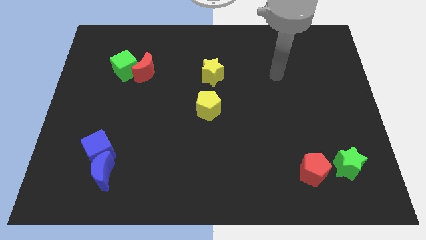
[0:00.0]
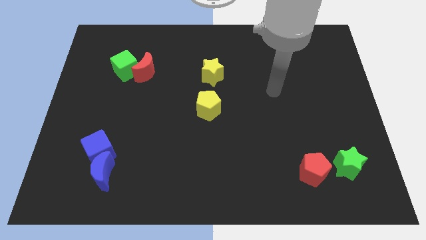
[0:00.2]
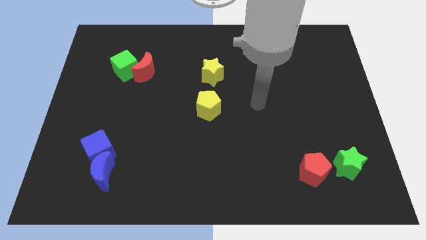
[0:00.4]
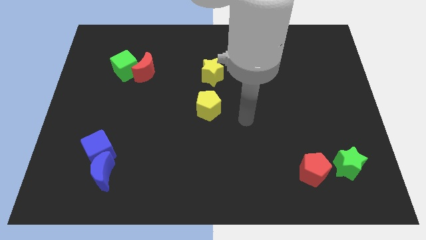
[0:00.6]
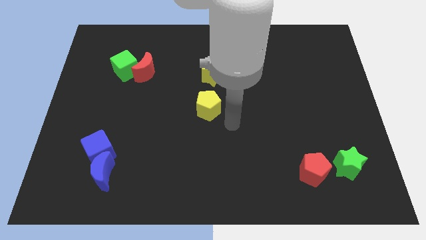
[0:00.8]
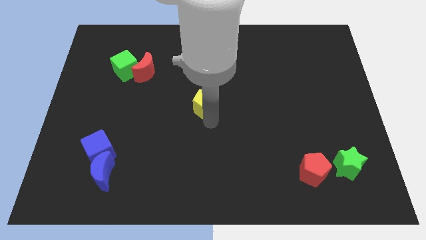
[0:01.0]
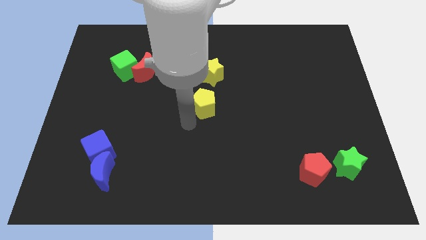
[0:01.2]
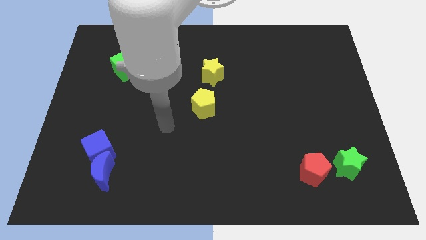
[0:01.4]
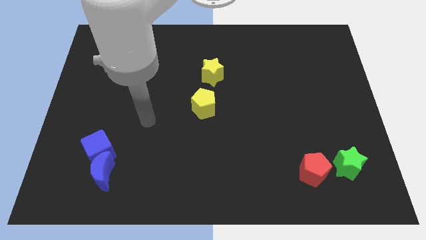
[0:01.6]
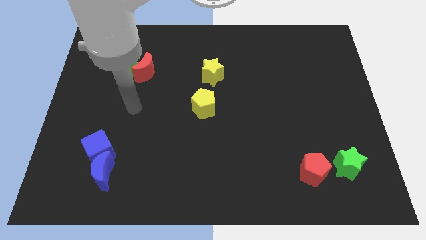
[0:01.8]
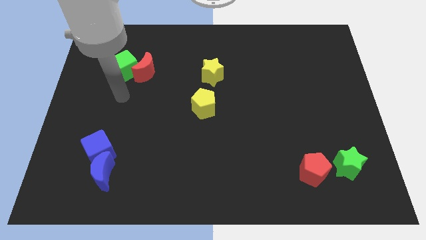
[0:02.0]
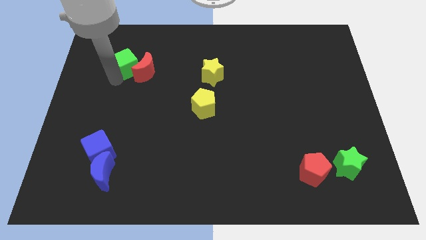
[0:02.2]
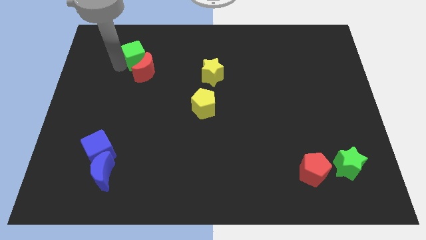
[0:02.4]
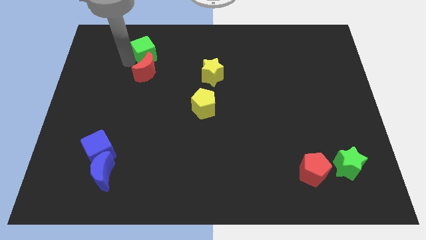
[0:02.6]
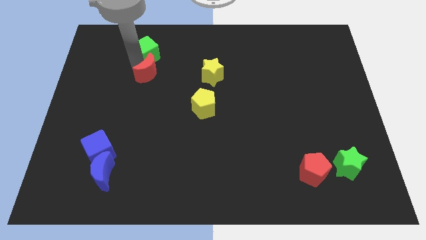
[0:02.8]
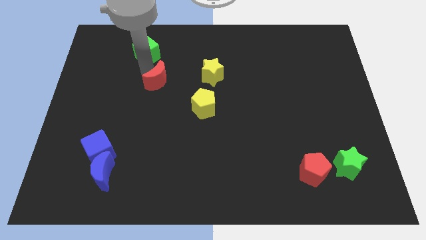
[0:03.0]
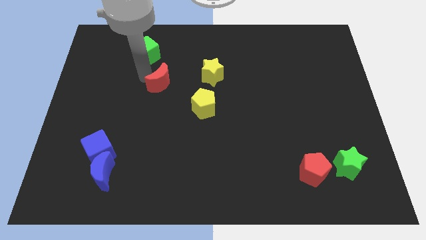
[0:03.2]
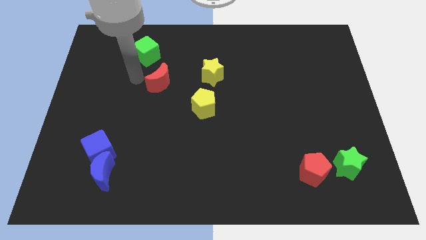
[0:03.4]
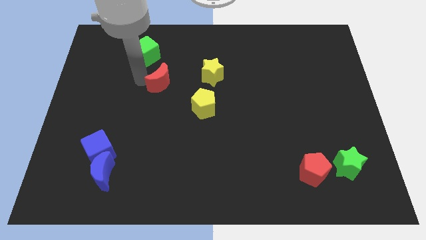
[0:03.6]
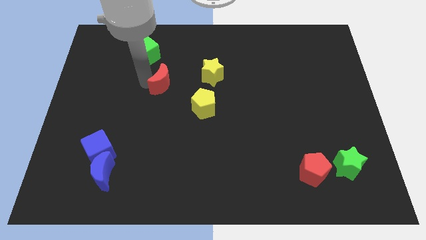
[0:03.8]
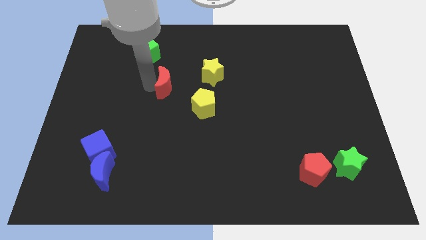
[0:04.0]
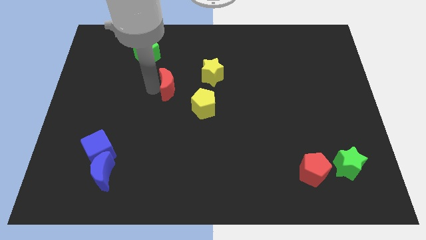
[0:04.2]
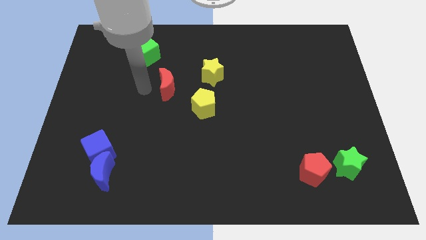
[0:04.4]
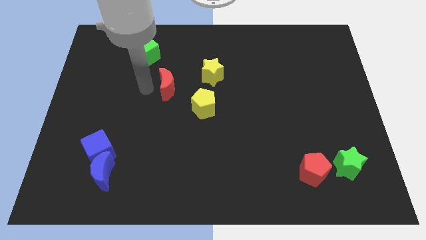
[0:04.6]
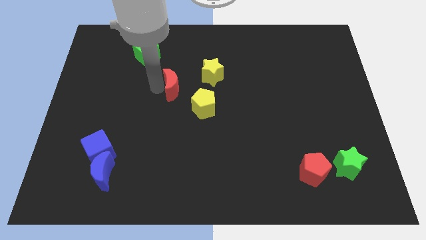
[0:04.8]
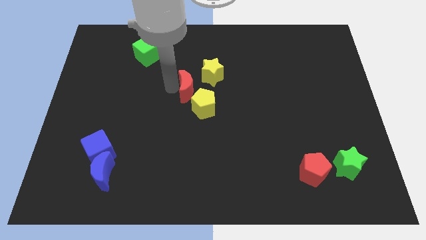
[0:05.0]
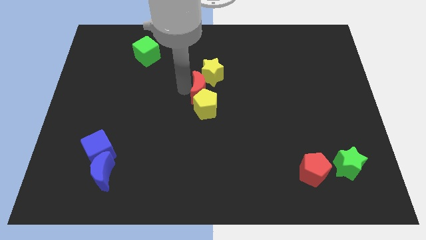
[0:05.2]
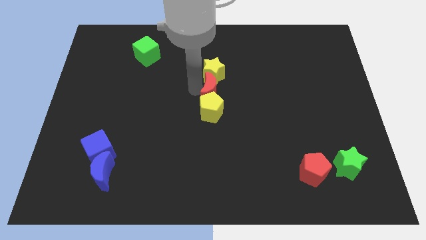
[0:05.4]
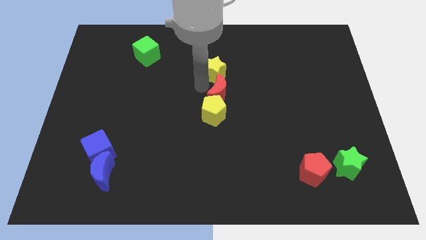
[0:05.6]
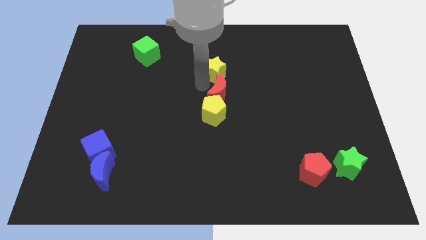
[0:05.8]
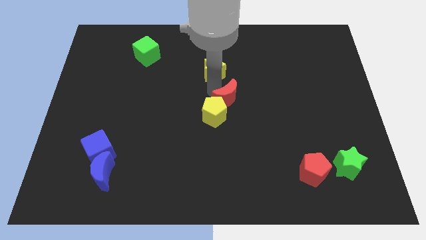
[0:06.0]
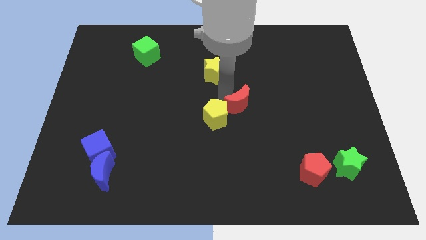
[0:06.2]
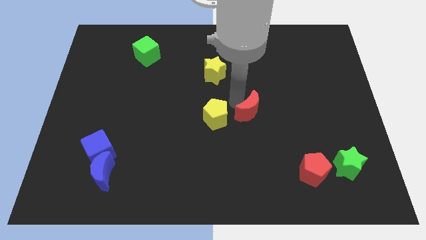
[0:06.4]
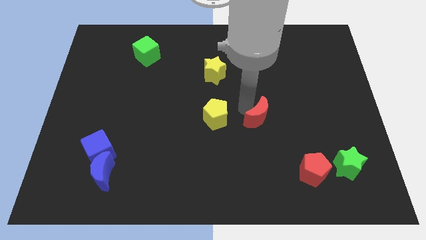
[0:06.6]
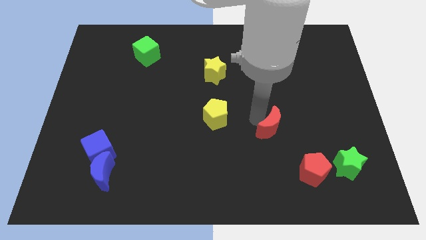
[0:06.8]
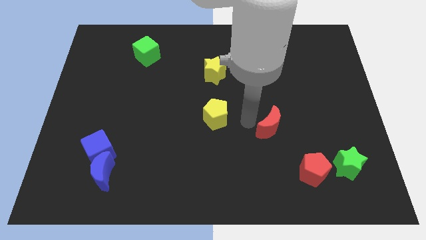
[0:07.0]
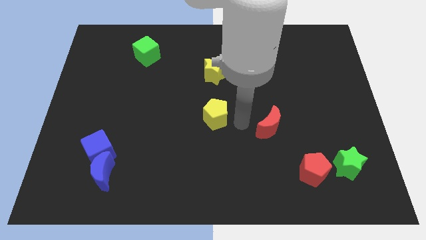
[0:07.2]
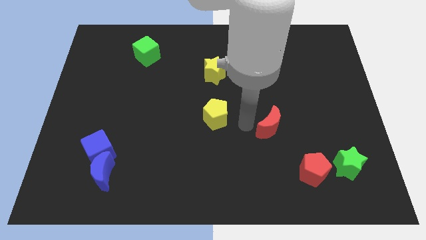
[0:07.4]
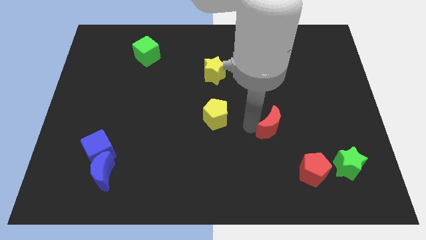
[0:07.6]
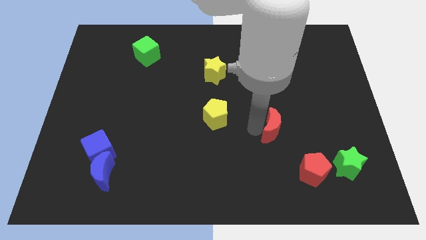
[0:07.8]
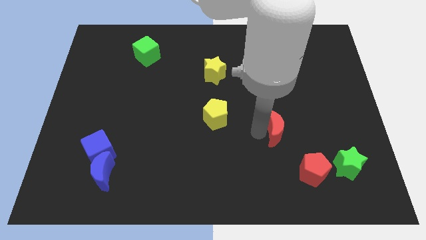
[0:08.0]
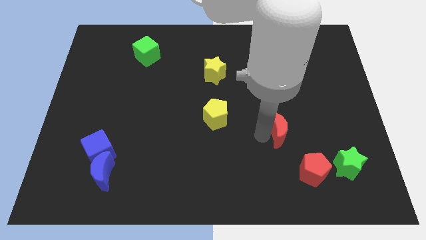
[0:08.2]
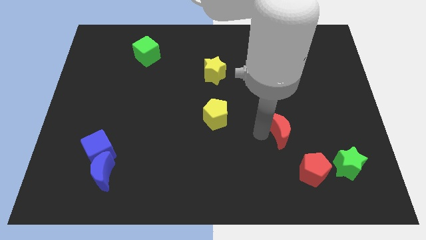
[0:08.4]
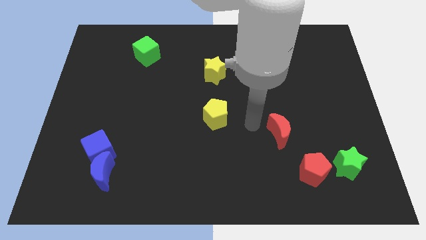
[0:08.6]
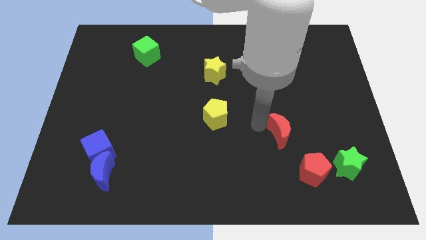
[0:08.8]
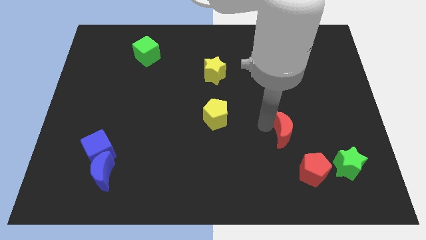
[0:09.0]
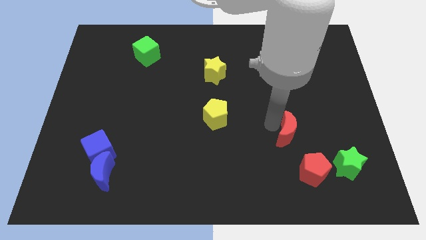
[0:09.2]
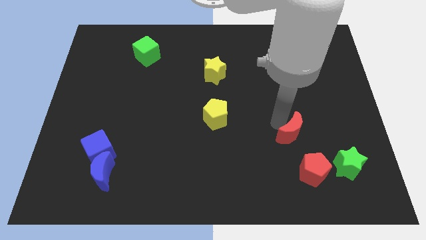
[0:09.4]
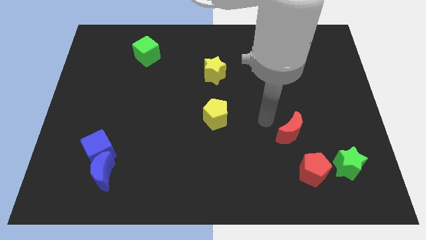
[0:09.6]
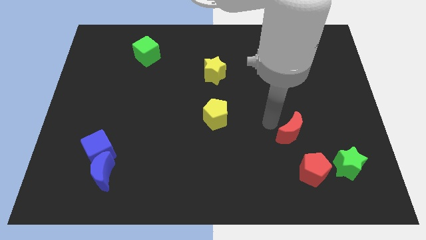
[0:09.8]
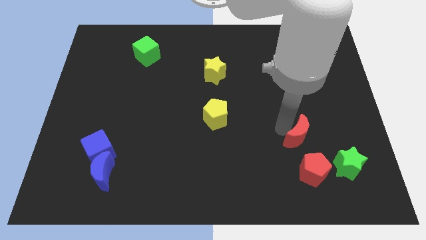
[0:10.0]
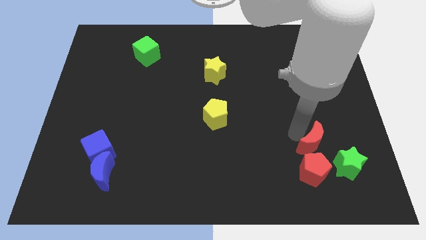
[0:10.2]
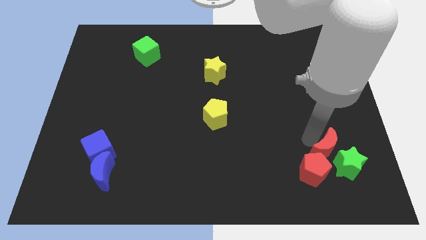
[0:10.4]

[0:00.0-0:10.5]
push the red moon next to the green star

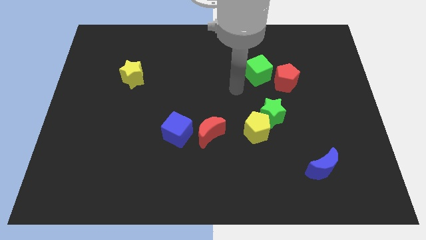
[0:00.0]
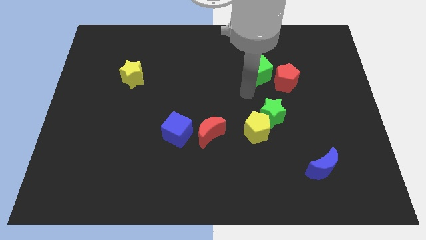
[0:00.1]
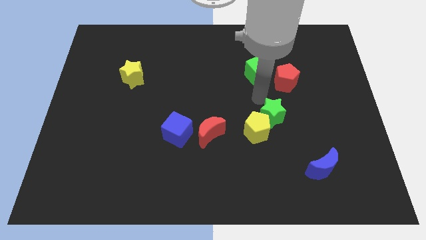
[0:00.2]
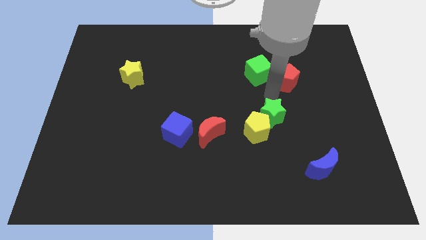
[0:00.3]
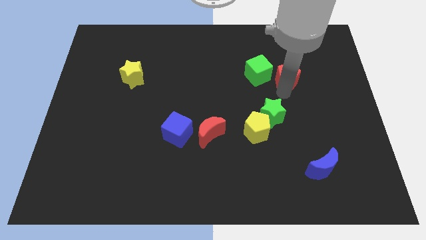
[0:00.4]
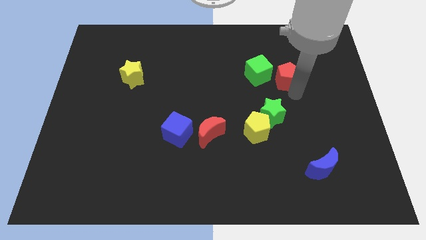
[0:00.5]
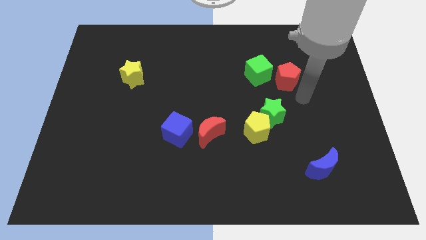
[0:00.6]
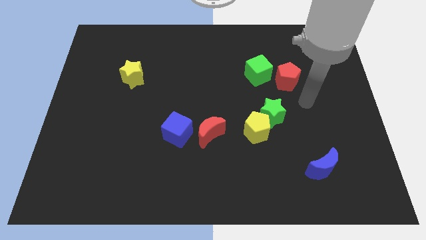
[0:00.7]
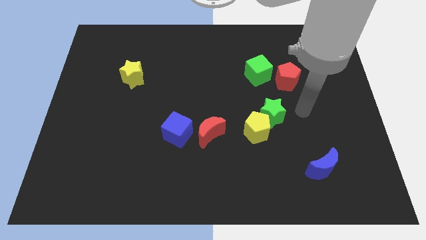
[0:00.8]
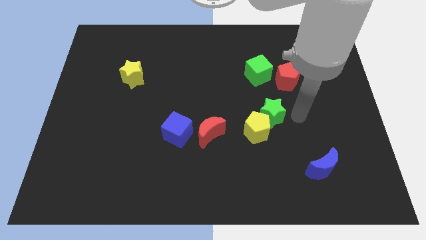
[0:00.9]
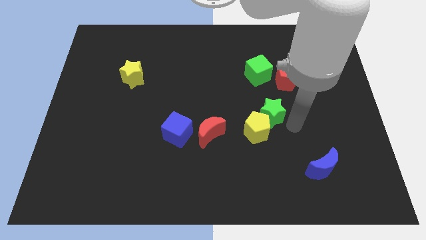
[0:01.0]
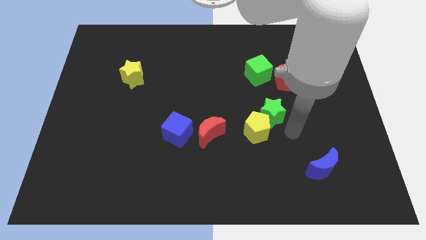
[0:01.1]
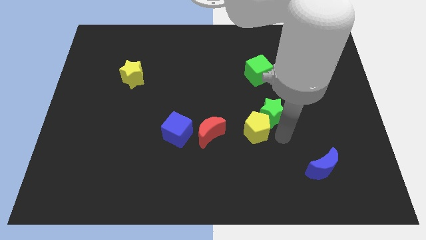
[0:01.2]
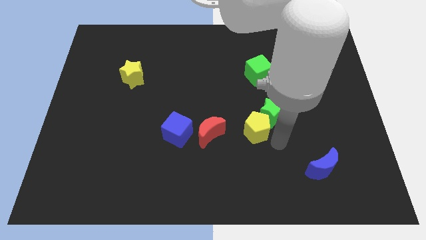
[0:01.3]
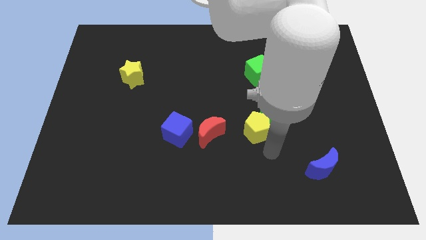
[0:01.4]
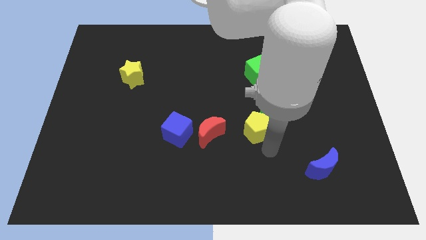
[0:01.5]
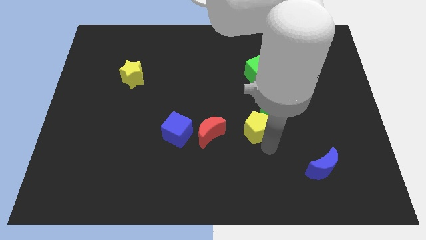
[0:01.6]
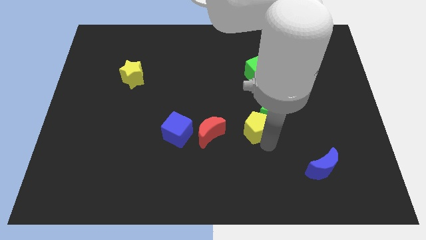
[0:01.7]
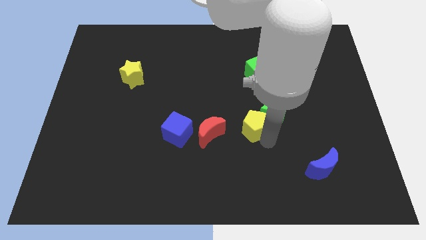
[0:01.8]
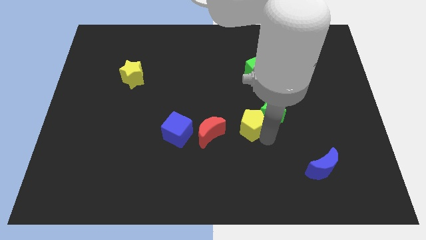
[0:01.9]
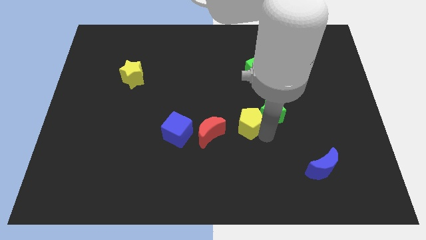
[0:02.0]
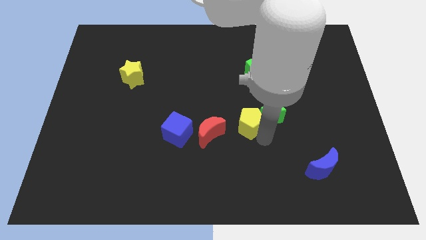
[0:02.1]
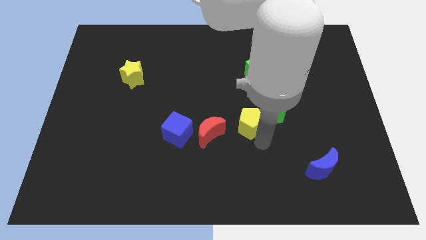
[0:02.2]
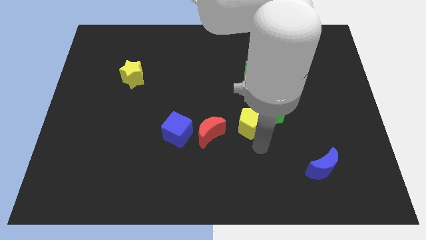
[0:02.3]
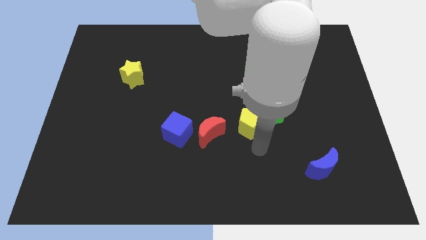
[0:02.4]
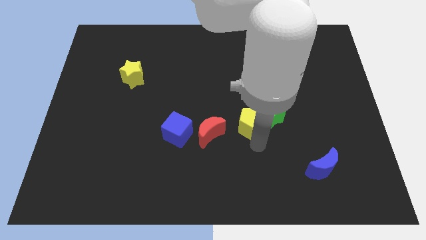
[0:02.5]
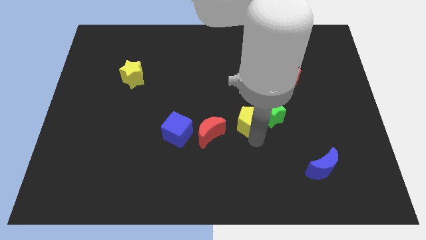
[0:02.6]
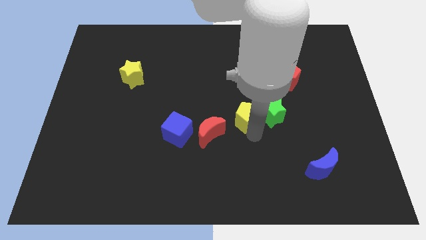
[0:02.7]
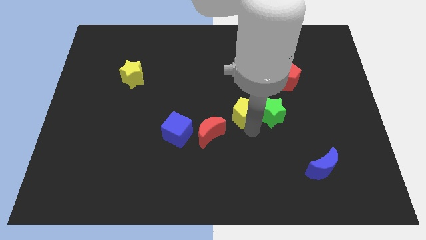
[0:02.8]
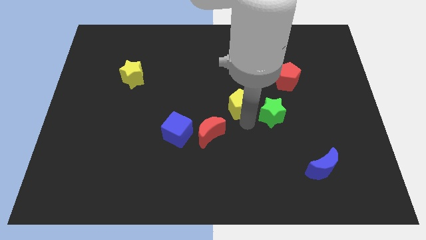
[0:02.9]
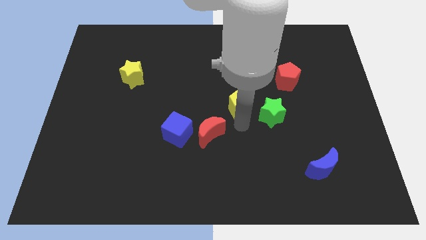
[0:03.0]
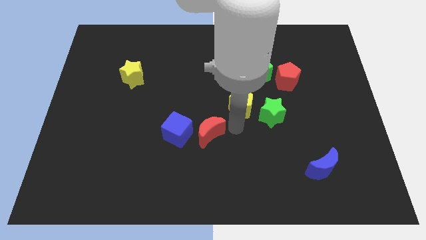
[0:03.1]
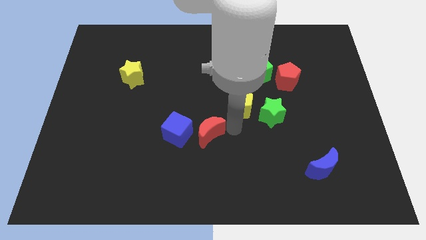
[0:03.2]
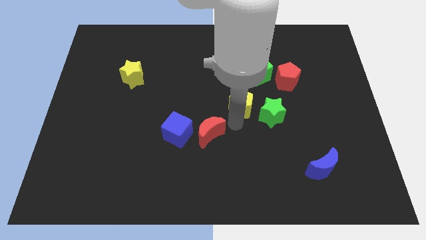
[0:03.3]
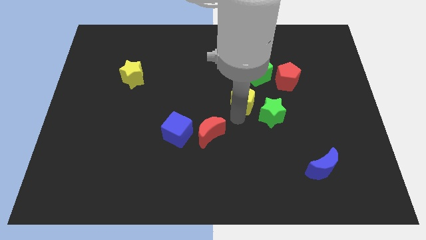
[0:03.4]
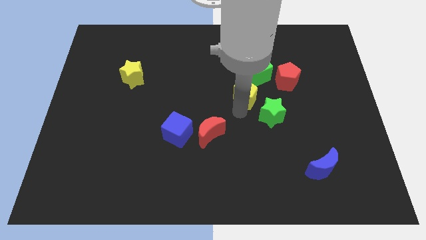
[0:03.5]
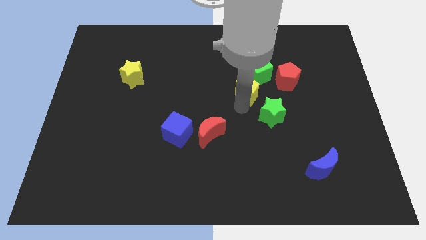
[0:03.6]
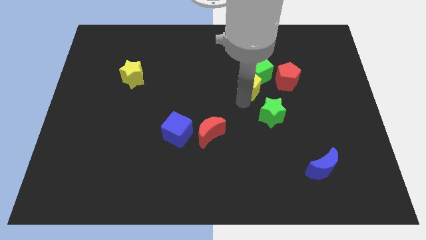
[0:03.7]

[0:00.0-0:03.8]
push the yellow pentagon towards the green cube
